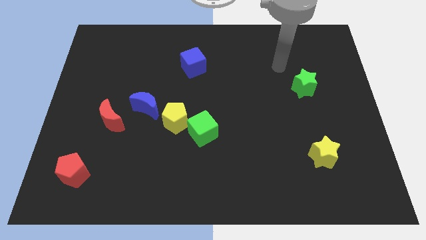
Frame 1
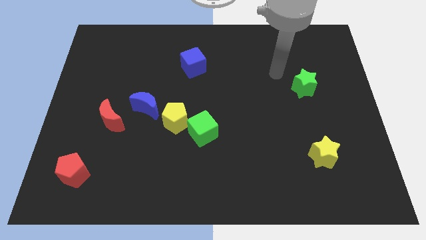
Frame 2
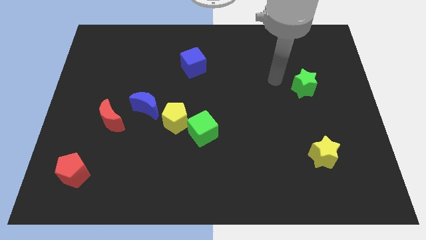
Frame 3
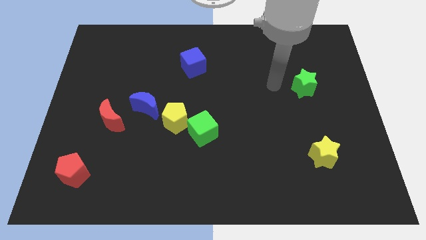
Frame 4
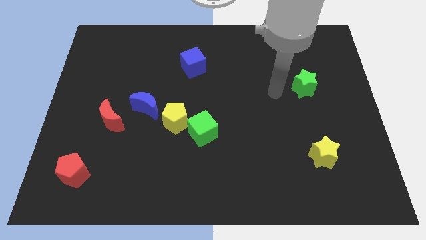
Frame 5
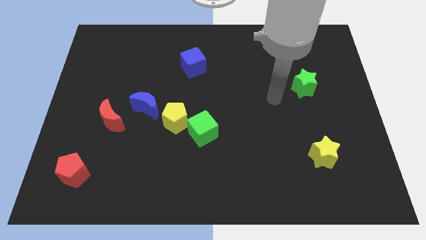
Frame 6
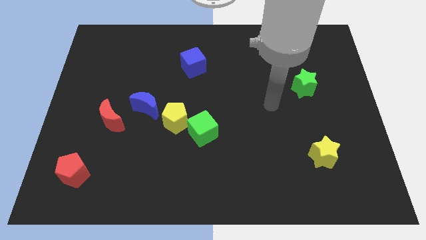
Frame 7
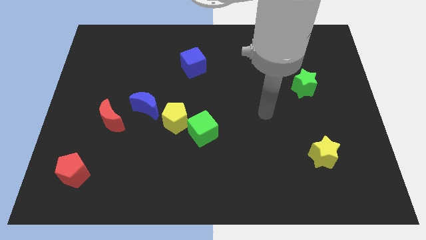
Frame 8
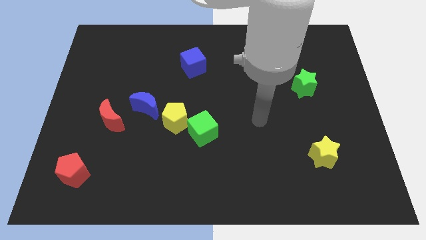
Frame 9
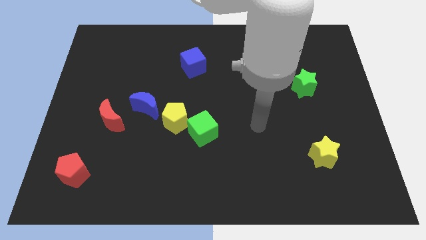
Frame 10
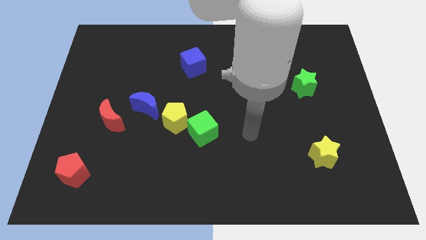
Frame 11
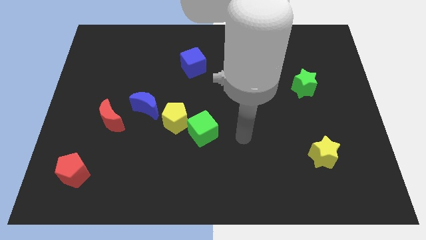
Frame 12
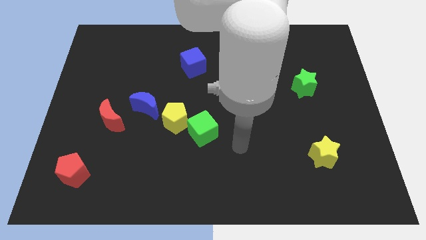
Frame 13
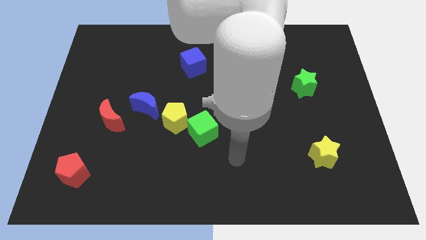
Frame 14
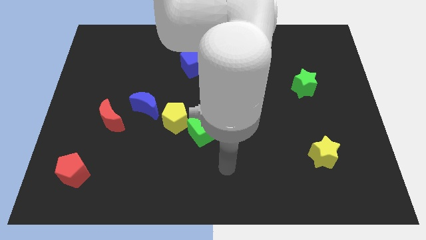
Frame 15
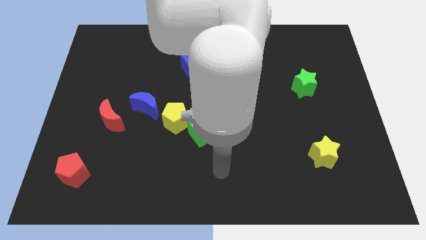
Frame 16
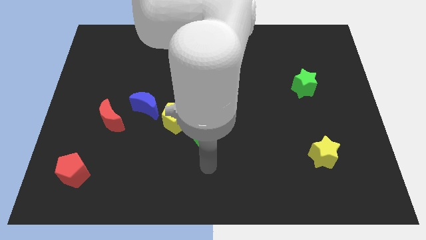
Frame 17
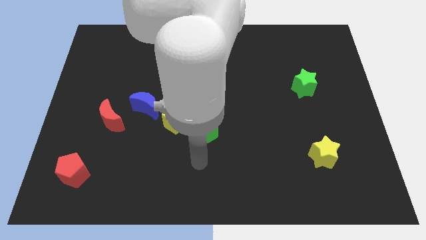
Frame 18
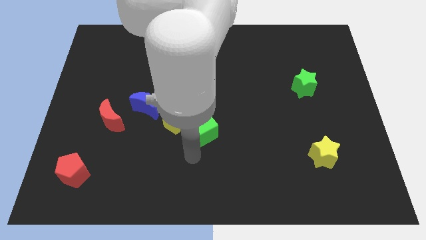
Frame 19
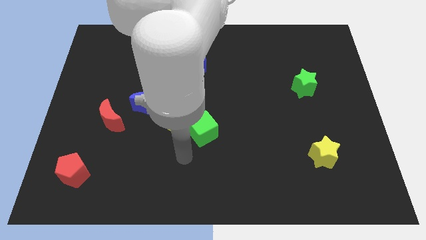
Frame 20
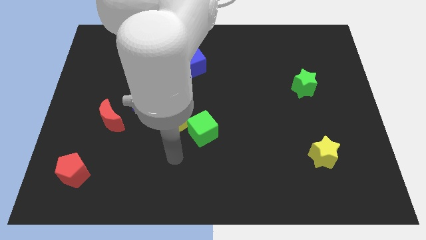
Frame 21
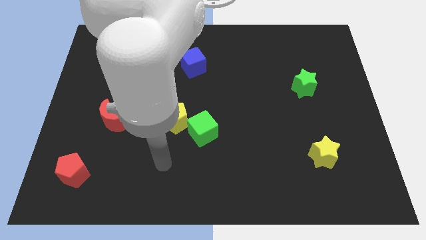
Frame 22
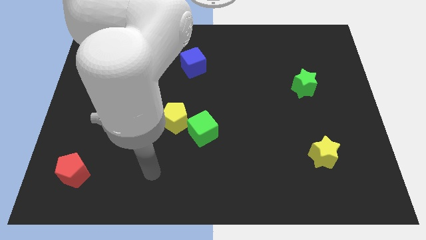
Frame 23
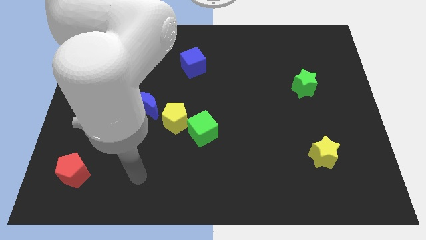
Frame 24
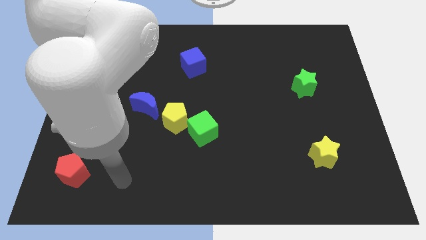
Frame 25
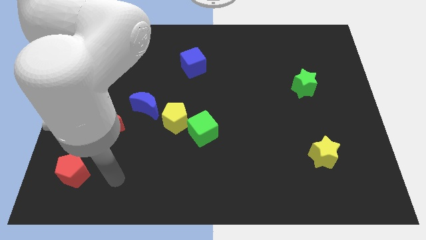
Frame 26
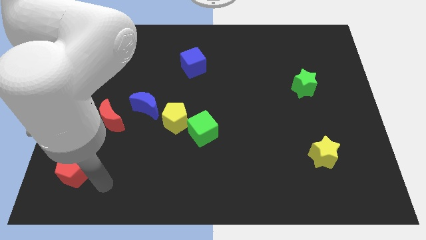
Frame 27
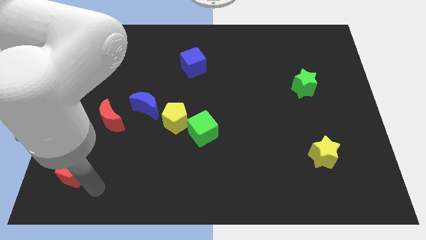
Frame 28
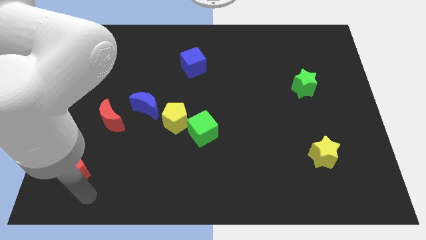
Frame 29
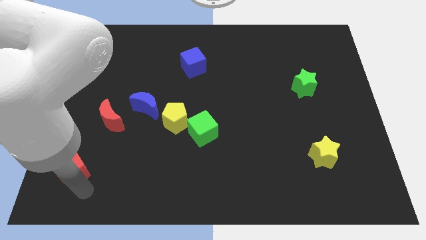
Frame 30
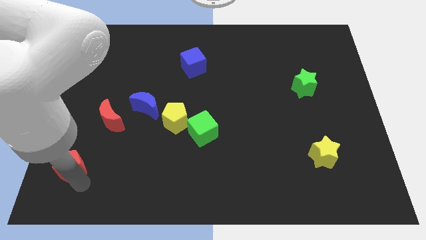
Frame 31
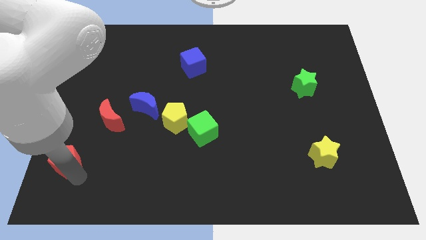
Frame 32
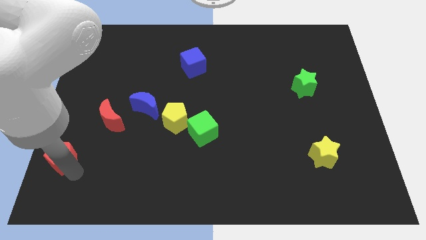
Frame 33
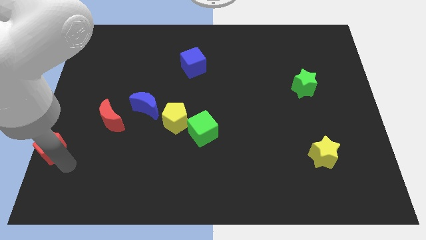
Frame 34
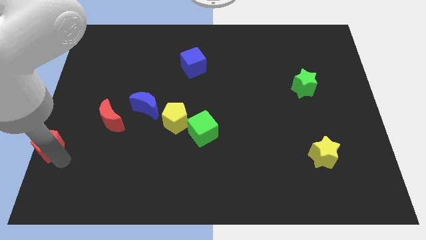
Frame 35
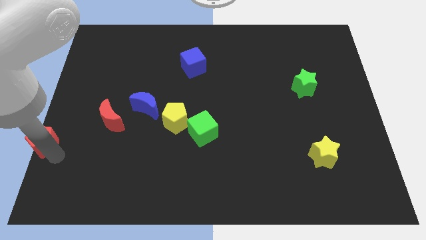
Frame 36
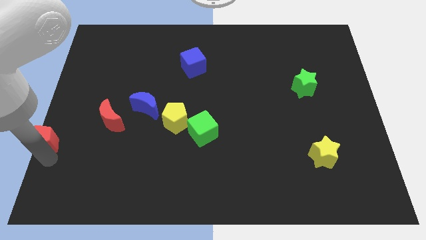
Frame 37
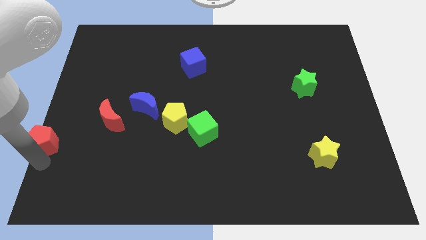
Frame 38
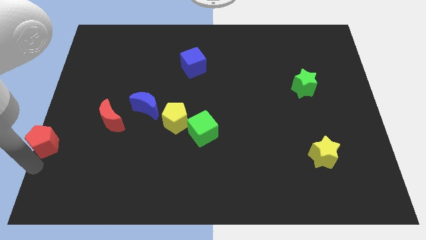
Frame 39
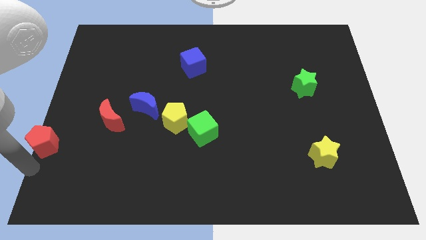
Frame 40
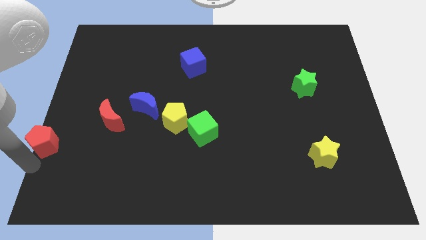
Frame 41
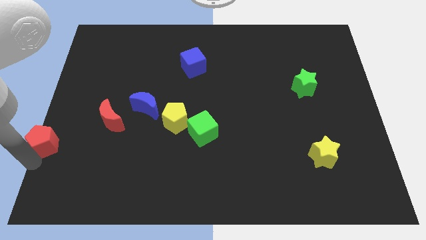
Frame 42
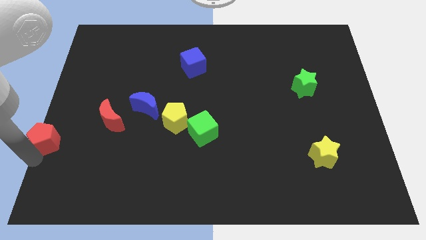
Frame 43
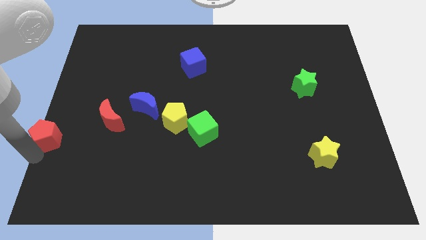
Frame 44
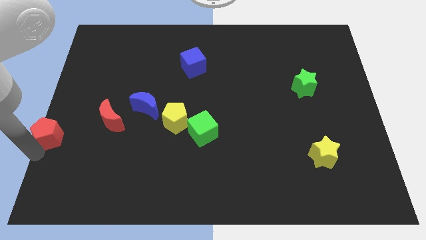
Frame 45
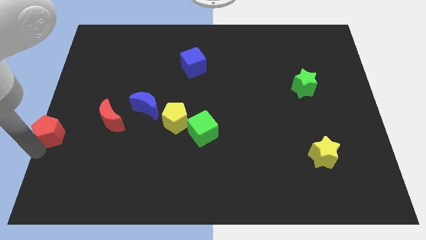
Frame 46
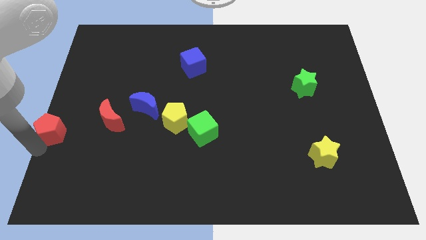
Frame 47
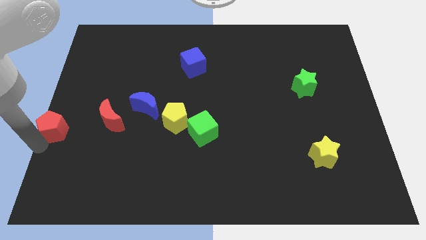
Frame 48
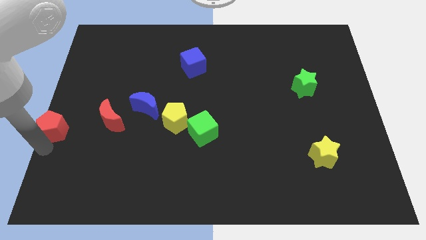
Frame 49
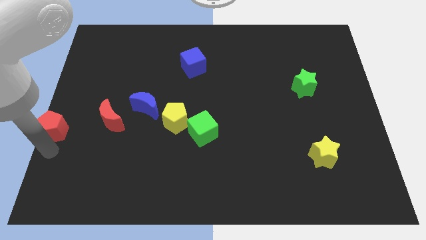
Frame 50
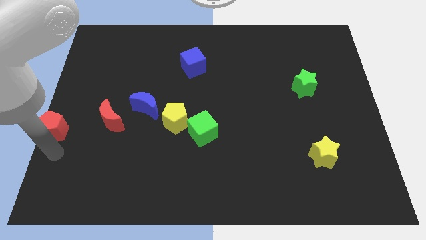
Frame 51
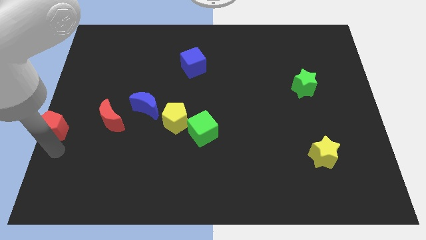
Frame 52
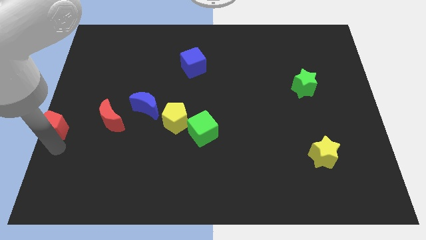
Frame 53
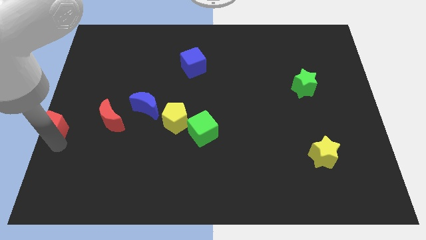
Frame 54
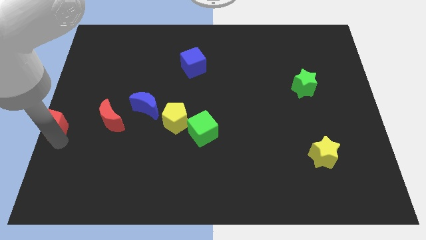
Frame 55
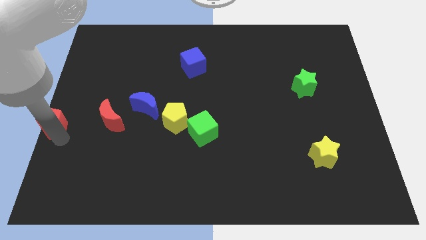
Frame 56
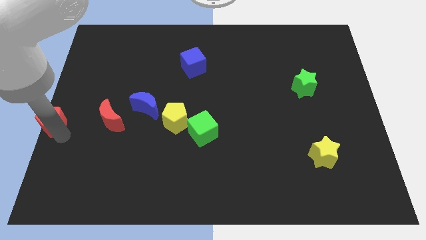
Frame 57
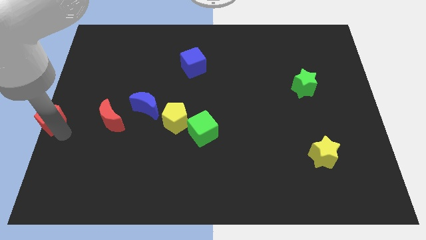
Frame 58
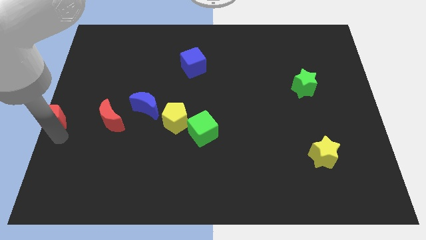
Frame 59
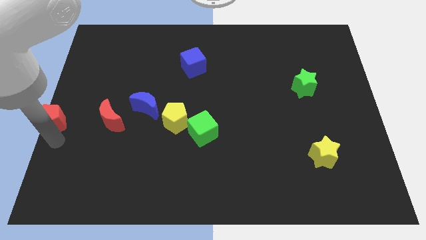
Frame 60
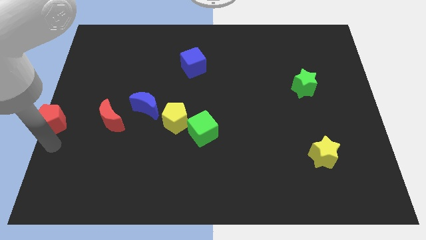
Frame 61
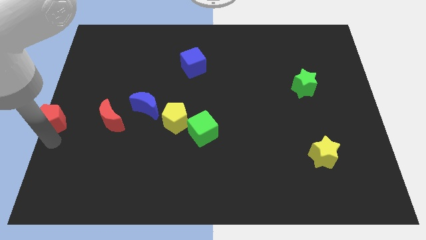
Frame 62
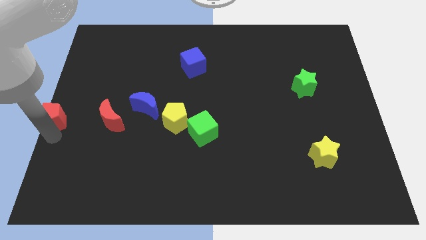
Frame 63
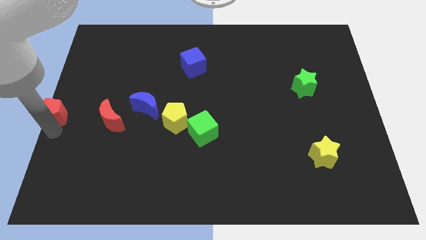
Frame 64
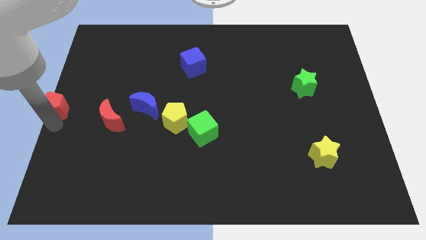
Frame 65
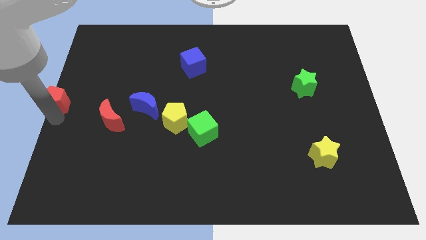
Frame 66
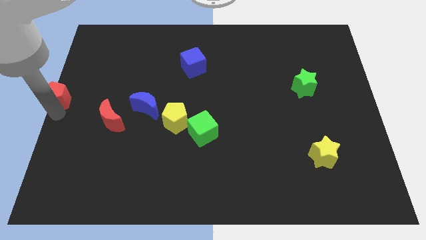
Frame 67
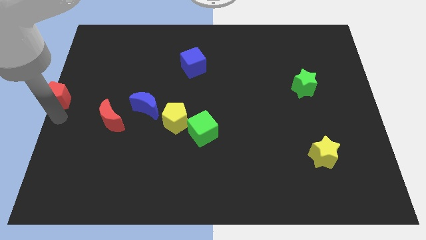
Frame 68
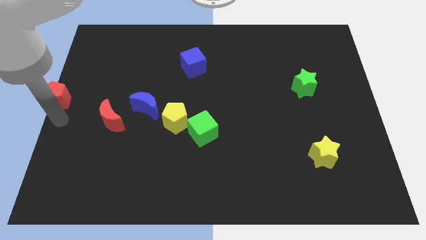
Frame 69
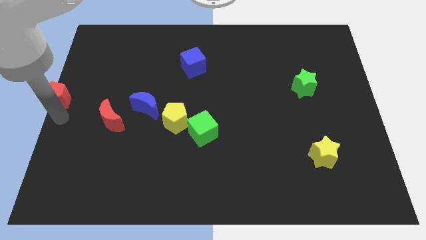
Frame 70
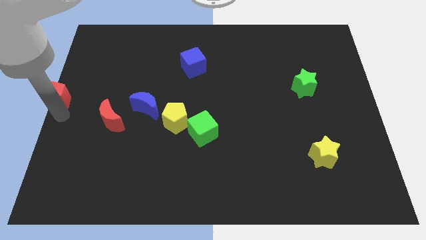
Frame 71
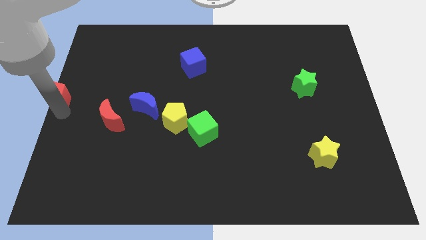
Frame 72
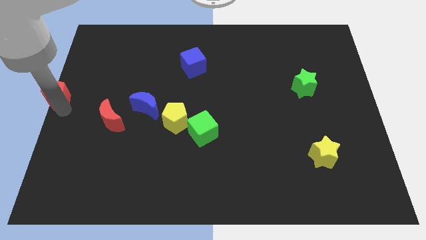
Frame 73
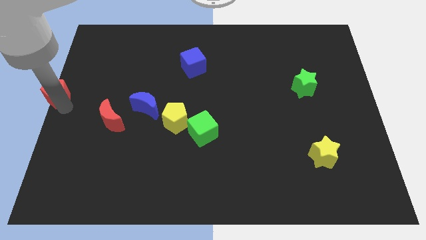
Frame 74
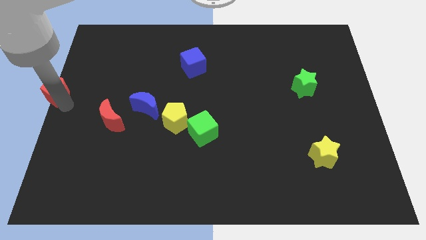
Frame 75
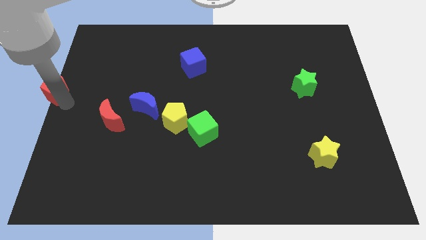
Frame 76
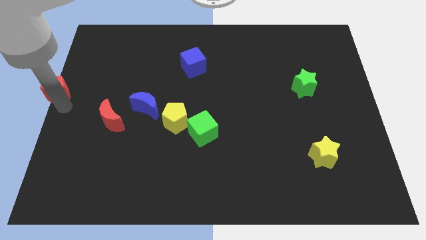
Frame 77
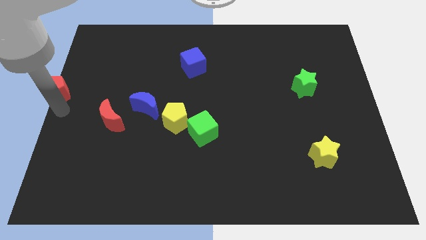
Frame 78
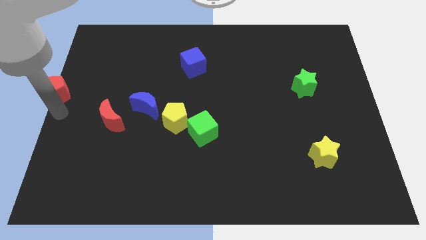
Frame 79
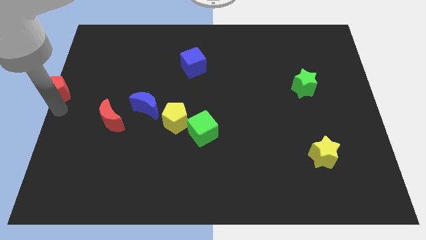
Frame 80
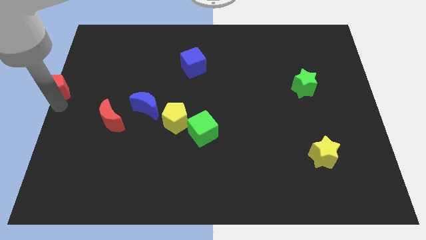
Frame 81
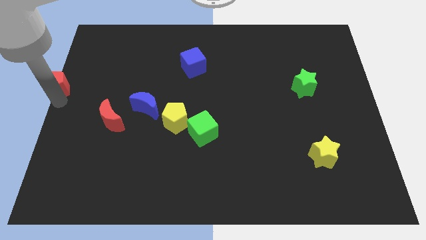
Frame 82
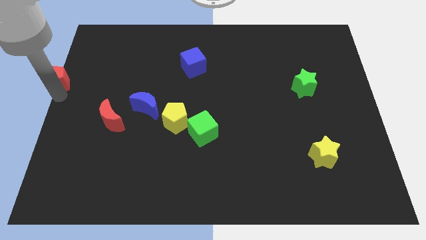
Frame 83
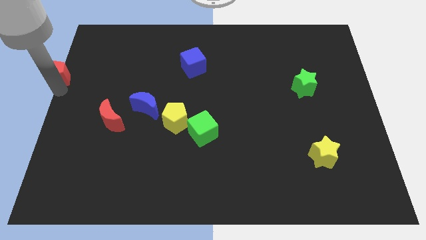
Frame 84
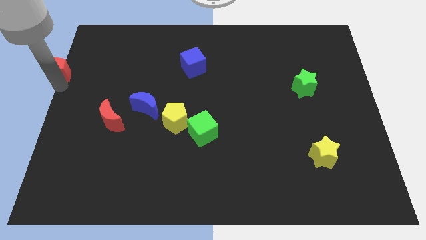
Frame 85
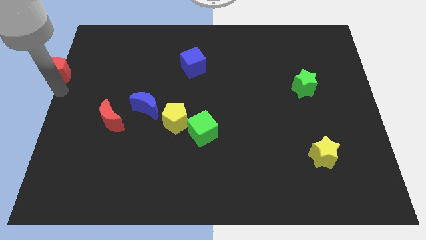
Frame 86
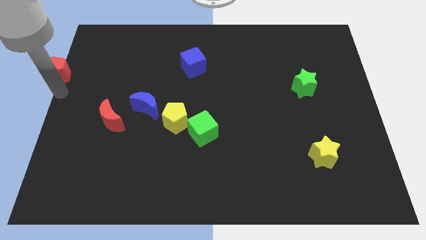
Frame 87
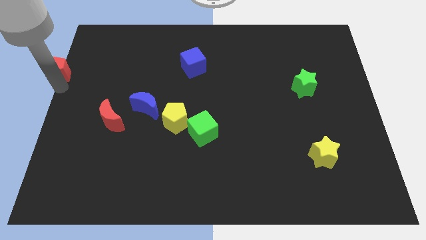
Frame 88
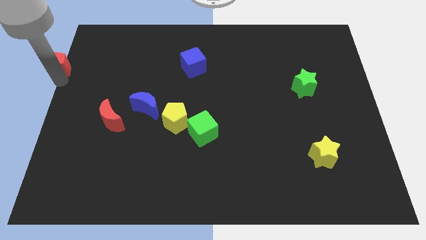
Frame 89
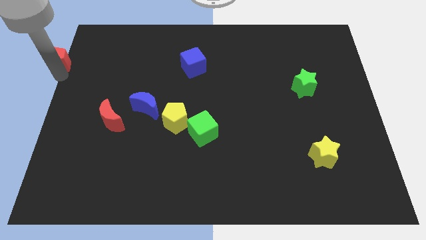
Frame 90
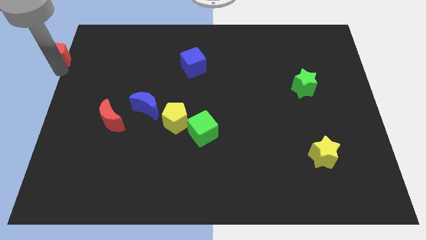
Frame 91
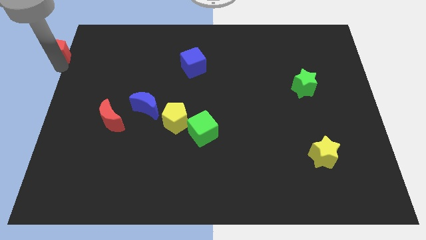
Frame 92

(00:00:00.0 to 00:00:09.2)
slide the red pentagon to the top left
